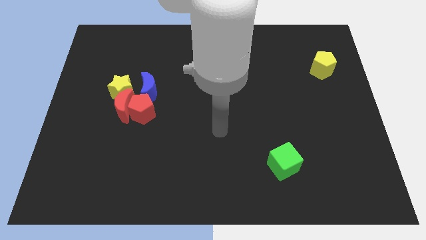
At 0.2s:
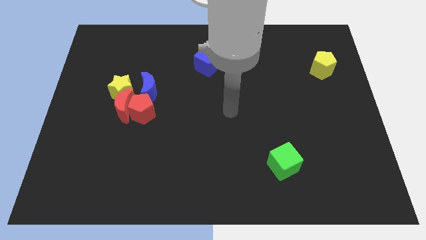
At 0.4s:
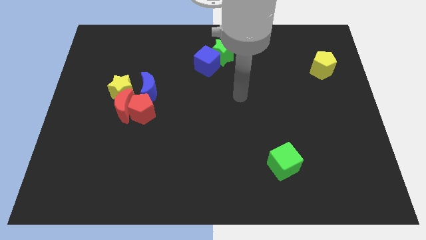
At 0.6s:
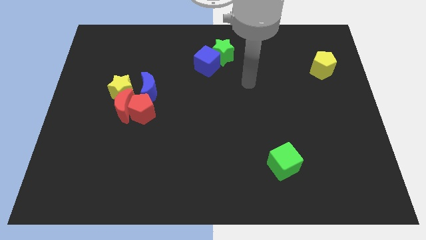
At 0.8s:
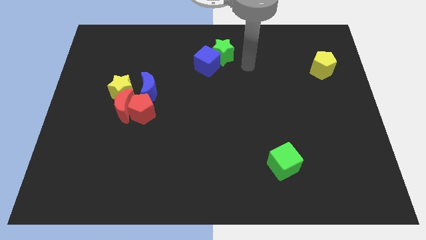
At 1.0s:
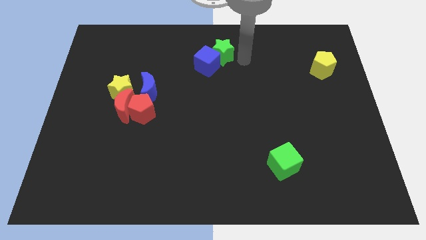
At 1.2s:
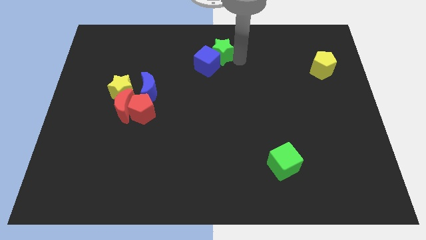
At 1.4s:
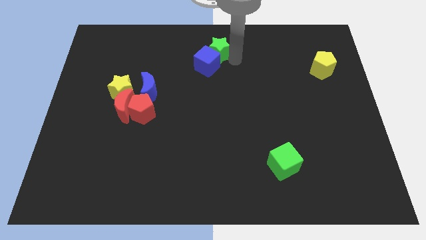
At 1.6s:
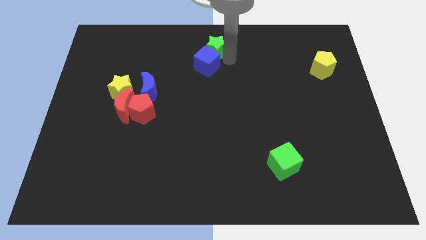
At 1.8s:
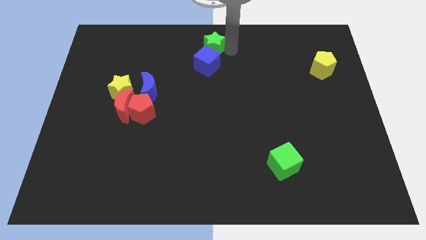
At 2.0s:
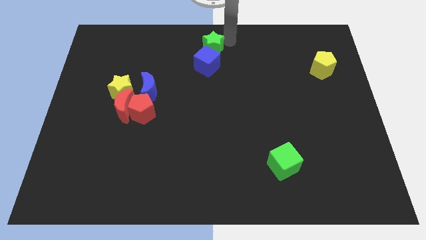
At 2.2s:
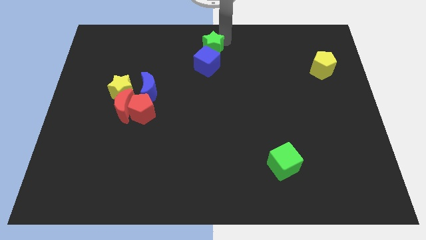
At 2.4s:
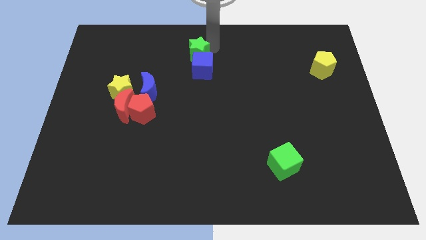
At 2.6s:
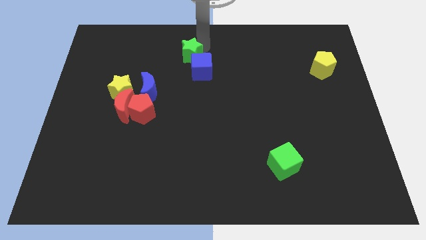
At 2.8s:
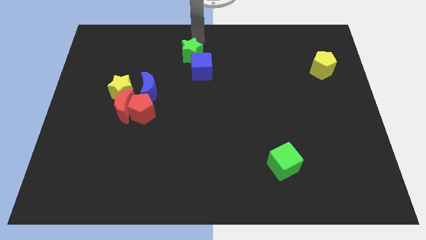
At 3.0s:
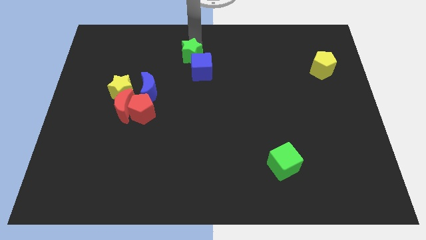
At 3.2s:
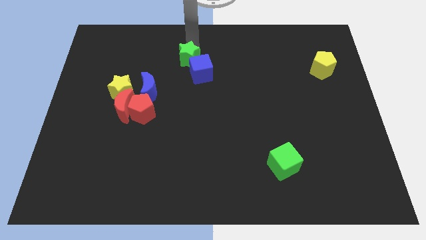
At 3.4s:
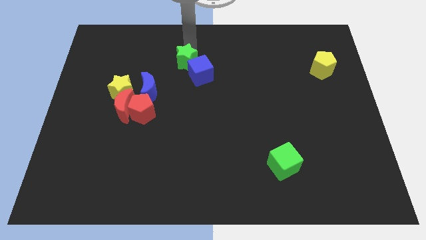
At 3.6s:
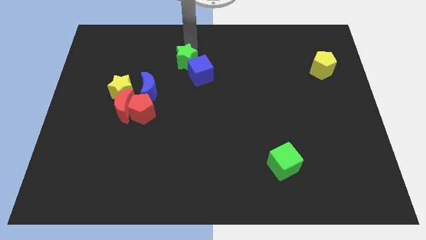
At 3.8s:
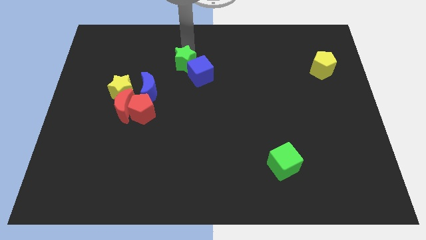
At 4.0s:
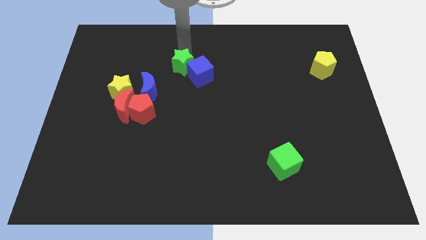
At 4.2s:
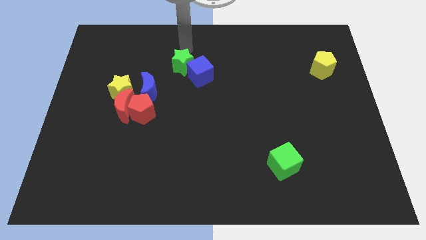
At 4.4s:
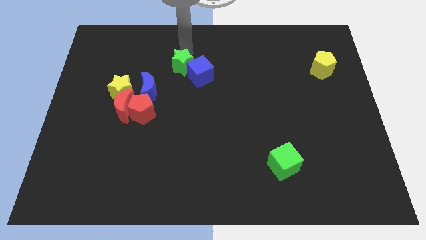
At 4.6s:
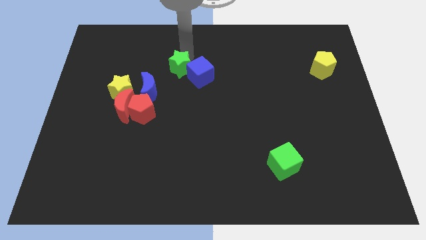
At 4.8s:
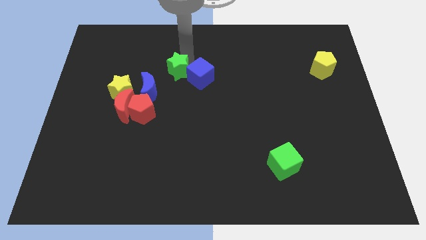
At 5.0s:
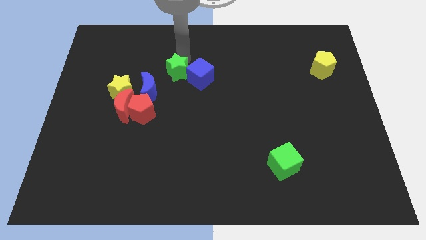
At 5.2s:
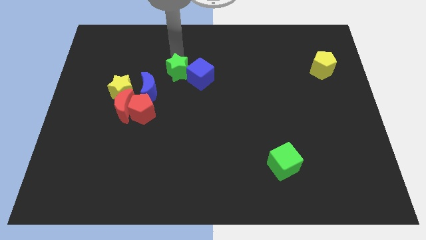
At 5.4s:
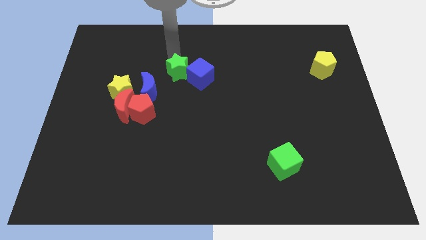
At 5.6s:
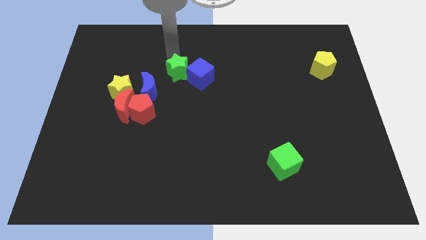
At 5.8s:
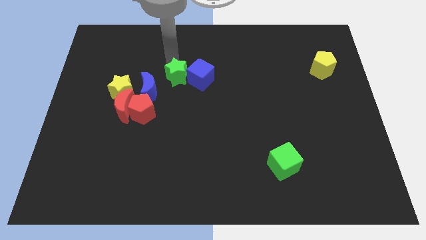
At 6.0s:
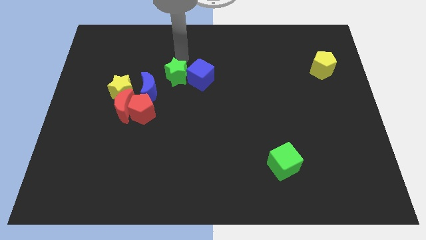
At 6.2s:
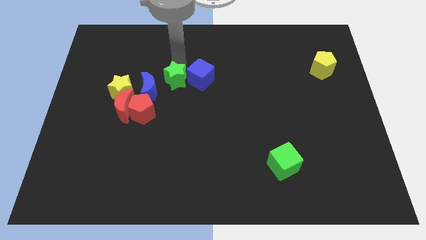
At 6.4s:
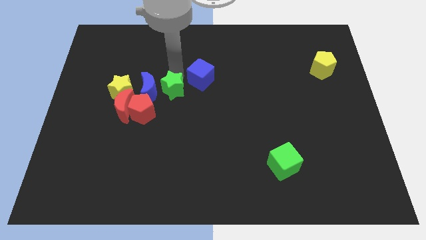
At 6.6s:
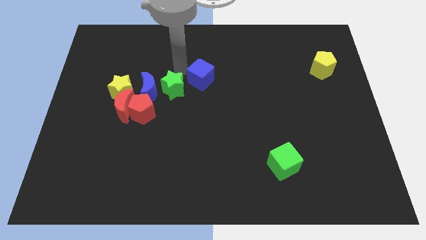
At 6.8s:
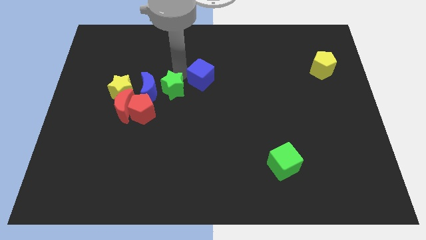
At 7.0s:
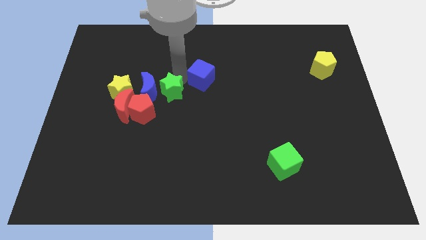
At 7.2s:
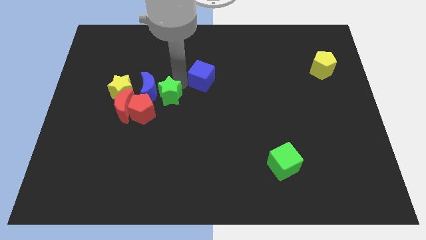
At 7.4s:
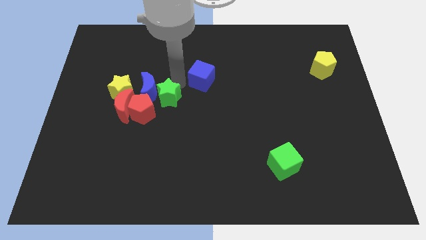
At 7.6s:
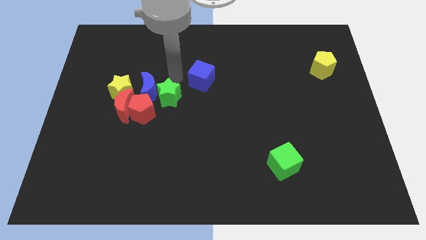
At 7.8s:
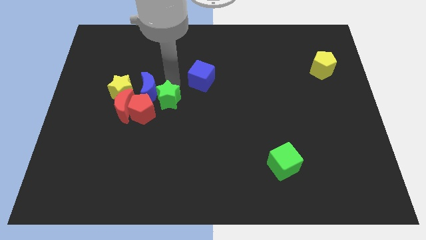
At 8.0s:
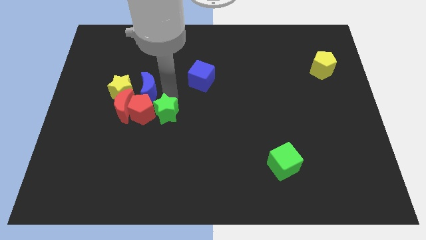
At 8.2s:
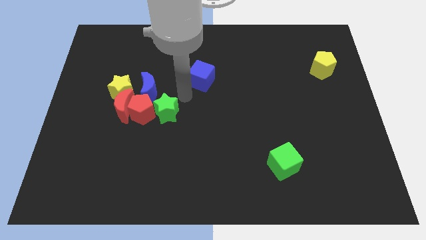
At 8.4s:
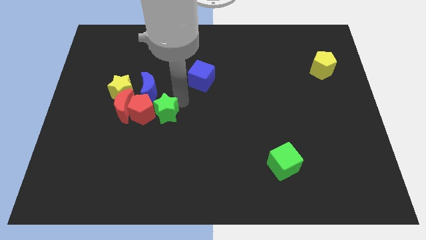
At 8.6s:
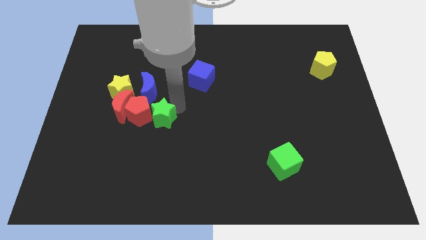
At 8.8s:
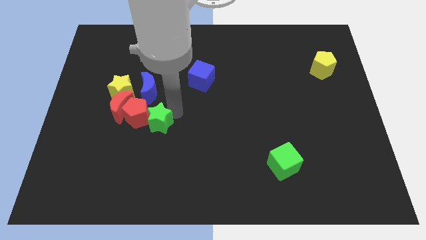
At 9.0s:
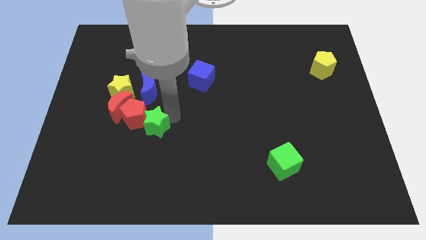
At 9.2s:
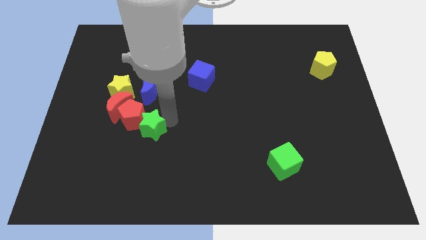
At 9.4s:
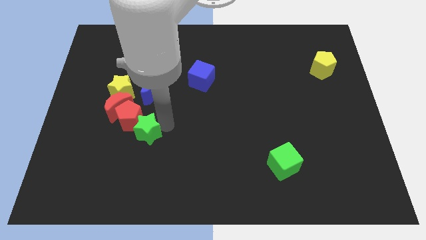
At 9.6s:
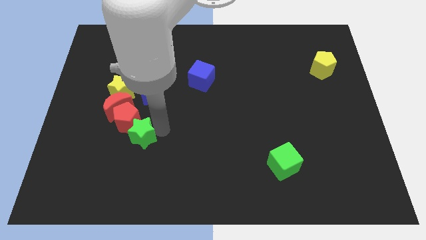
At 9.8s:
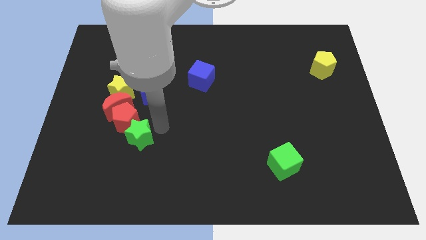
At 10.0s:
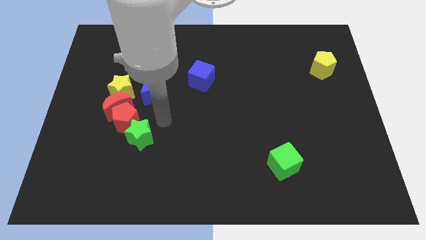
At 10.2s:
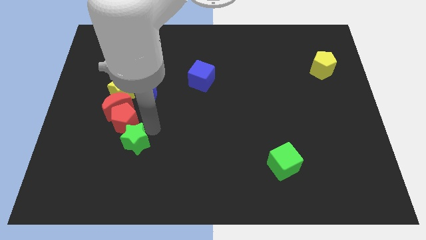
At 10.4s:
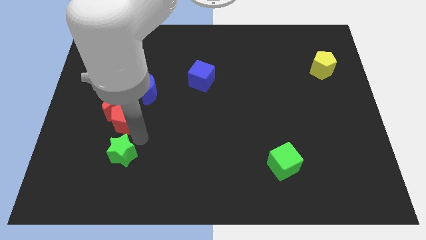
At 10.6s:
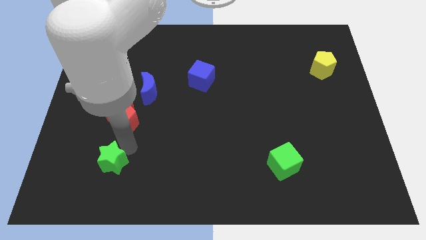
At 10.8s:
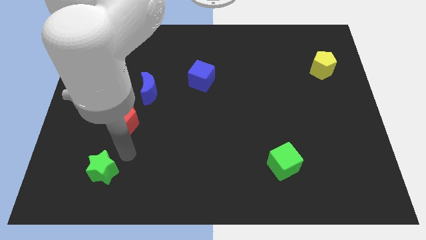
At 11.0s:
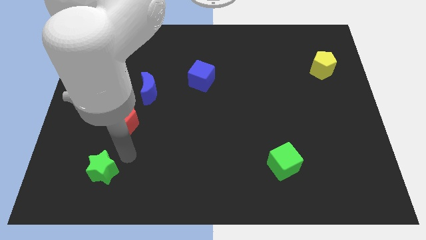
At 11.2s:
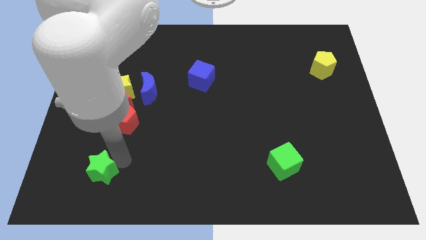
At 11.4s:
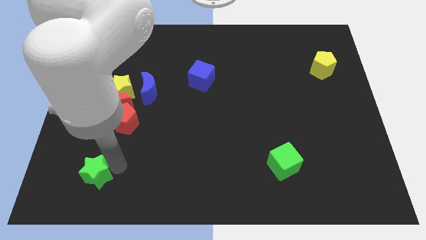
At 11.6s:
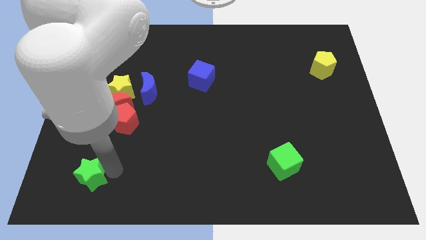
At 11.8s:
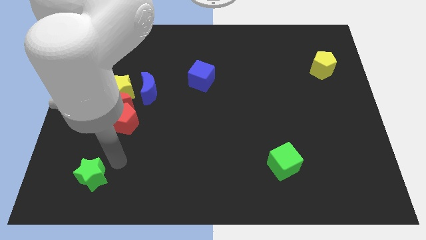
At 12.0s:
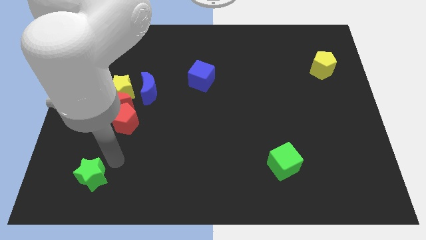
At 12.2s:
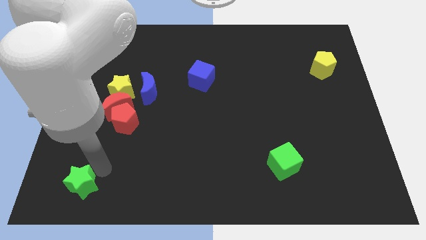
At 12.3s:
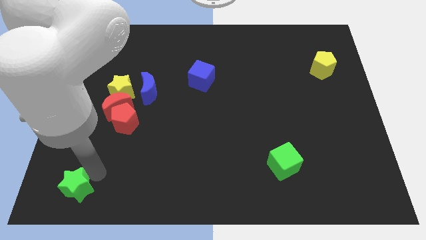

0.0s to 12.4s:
push the green star to the bottom left
